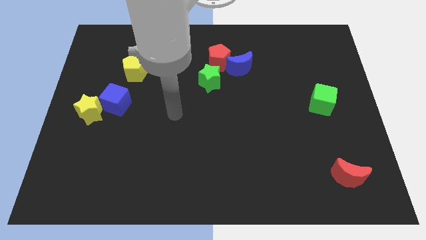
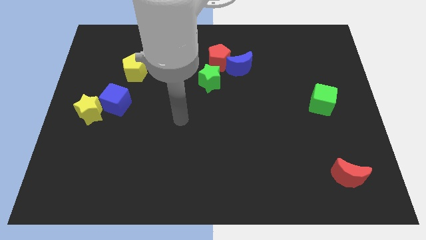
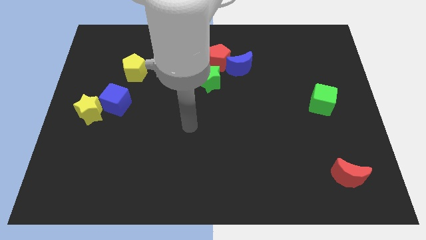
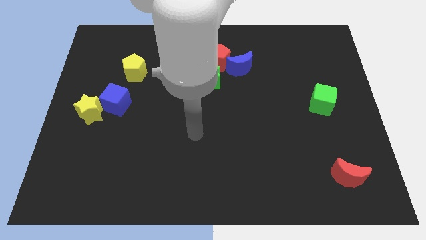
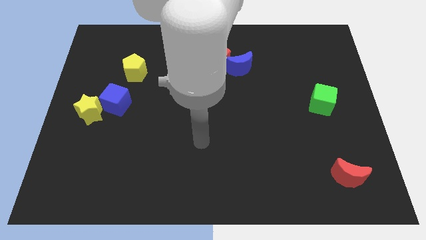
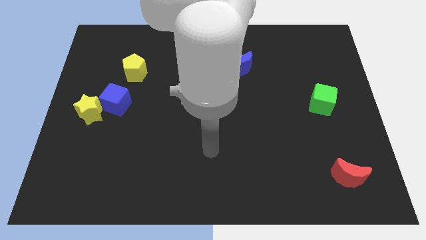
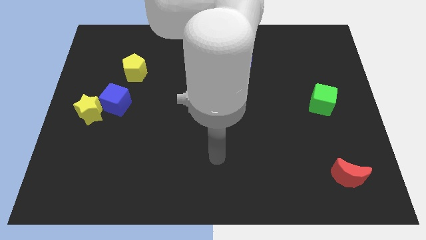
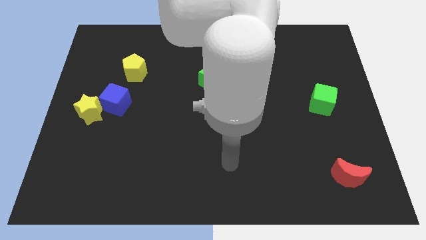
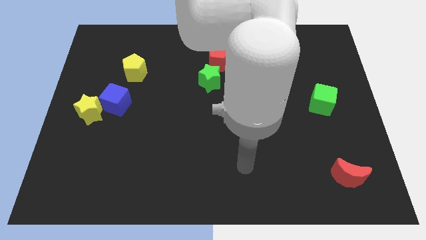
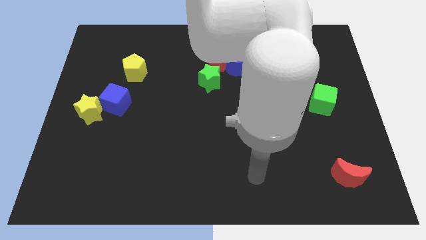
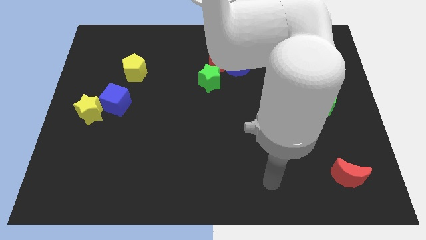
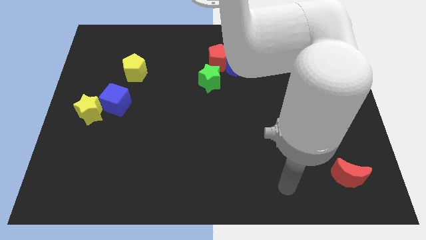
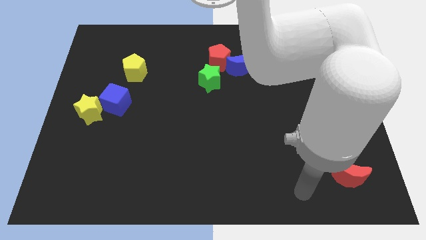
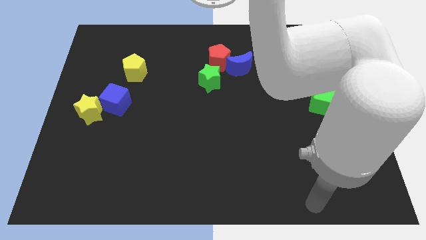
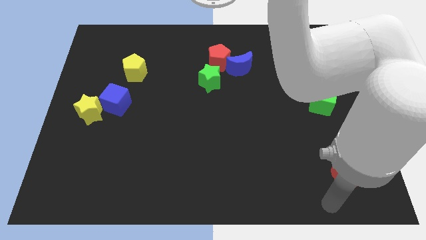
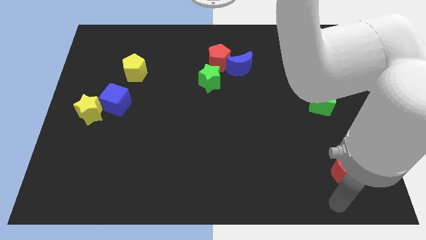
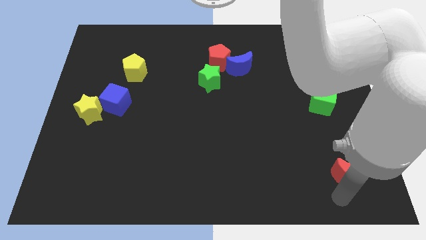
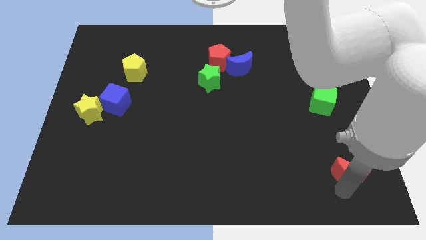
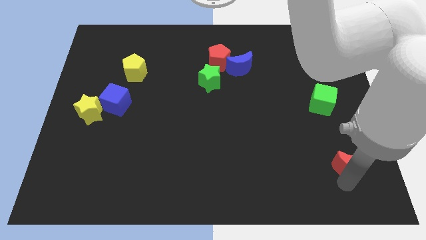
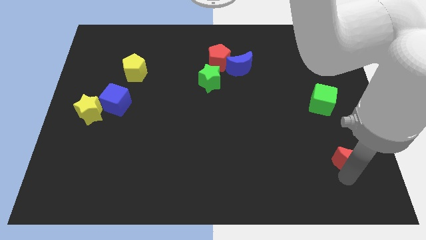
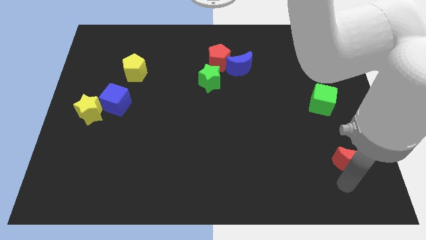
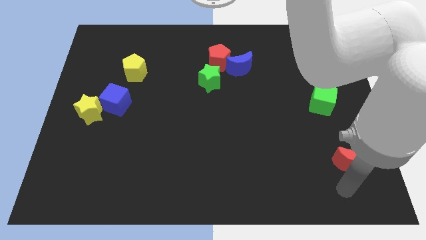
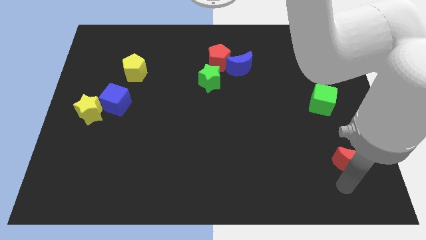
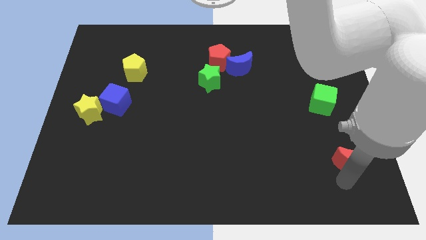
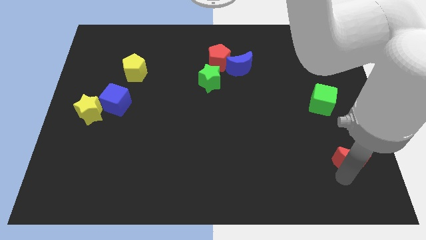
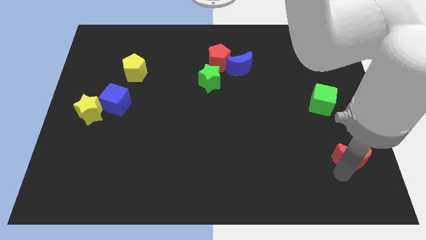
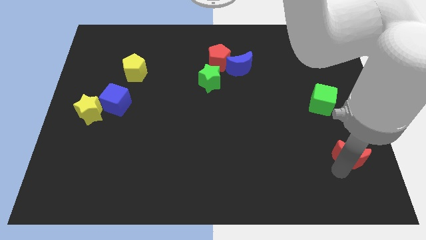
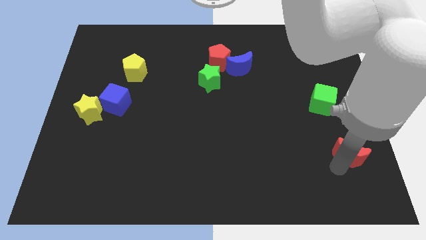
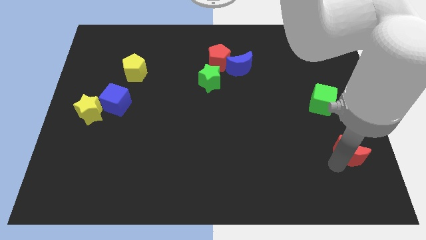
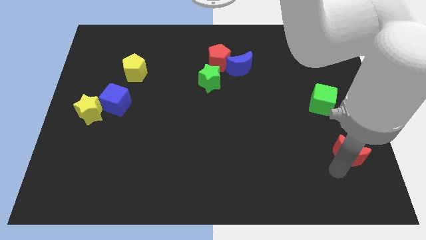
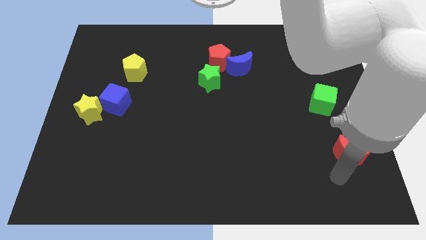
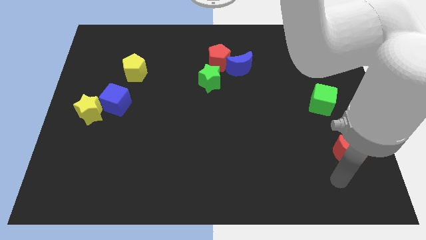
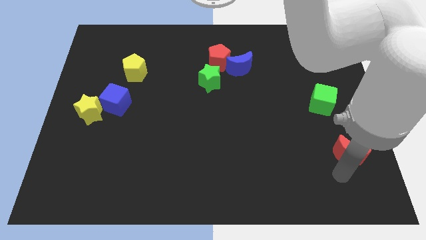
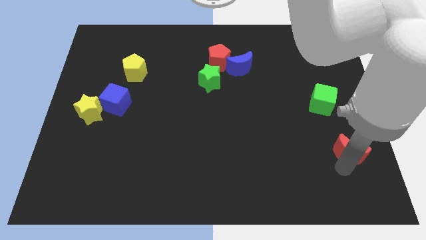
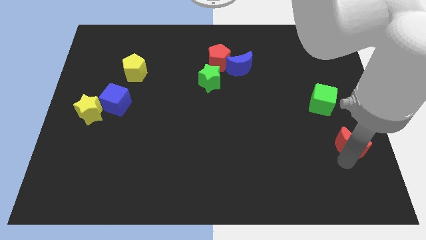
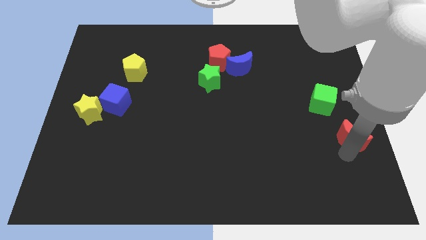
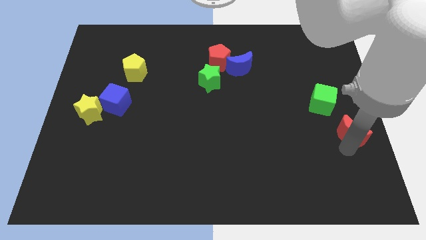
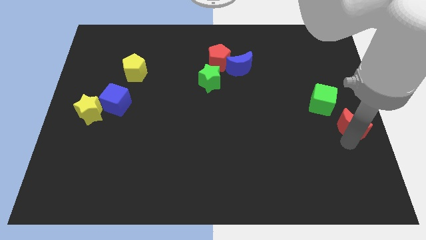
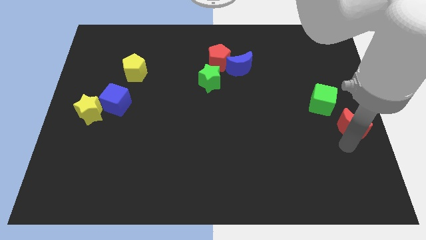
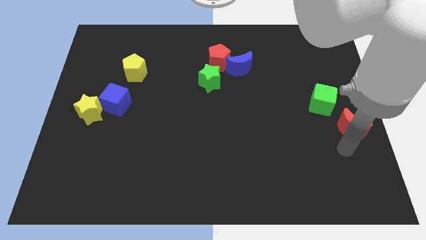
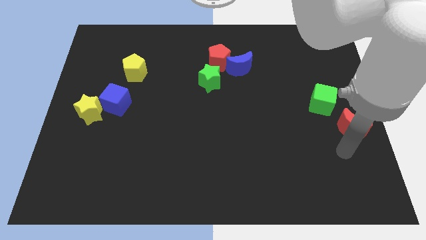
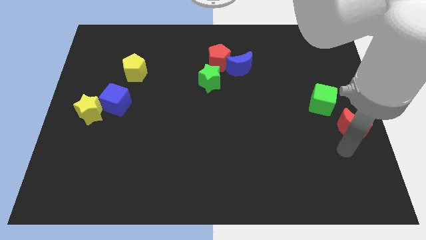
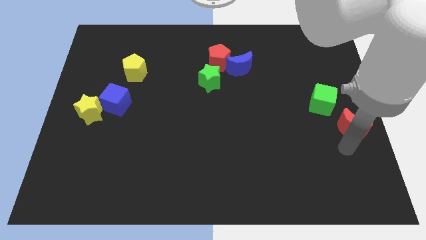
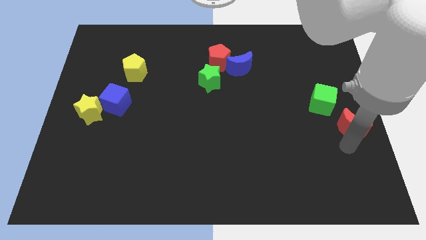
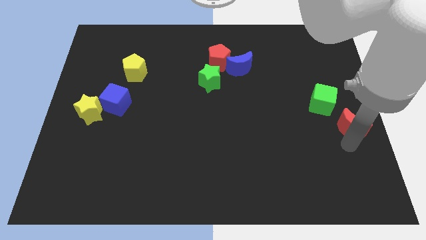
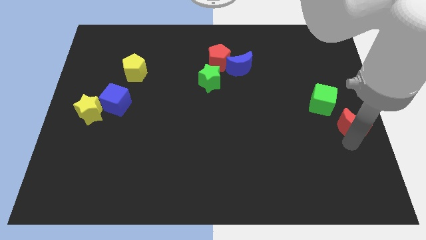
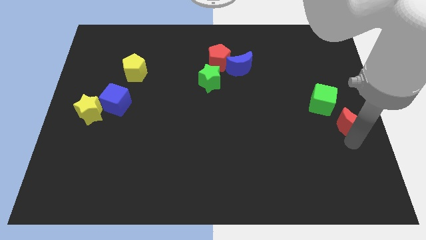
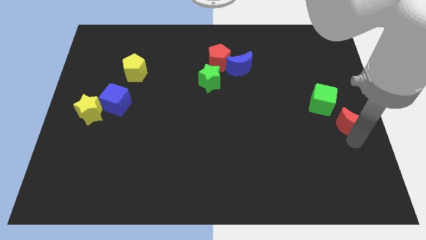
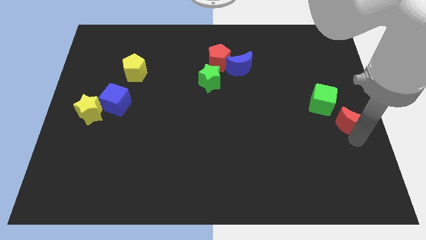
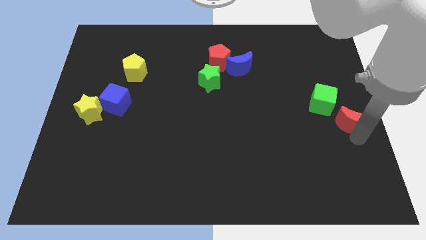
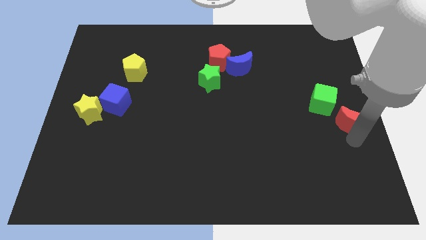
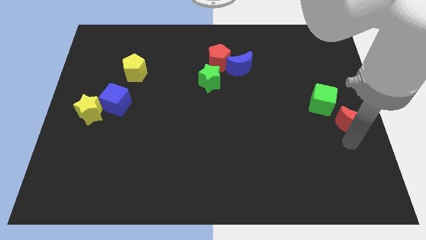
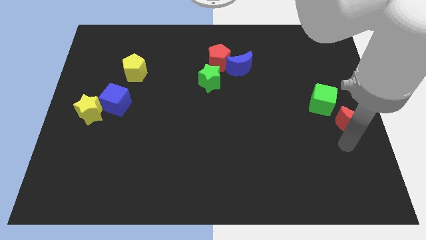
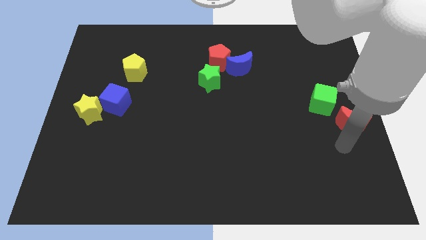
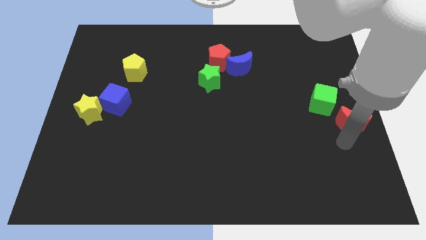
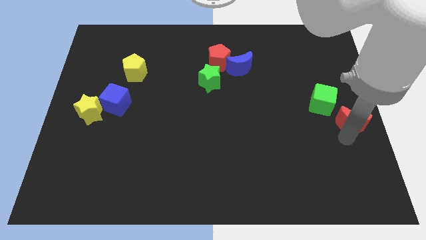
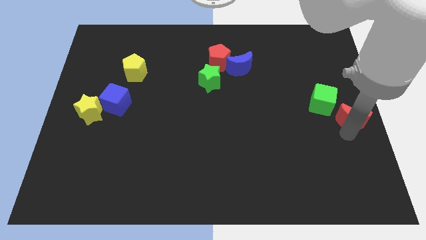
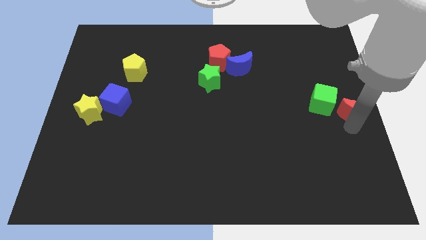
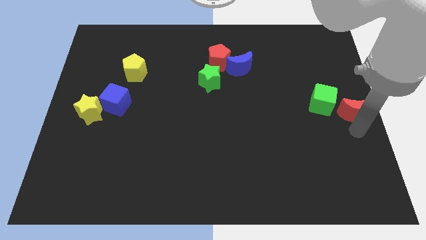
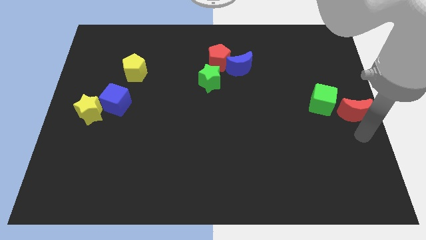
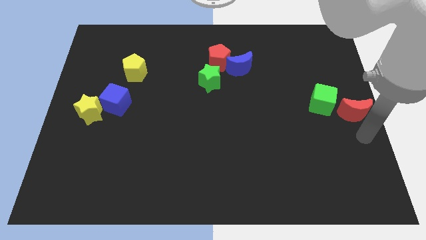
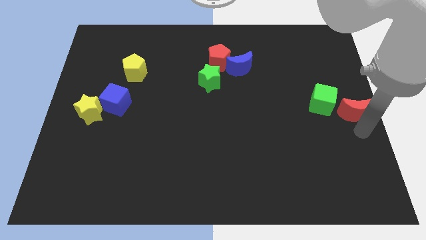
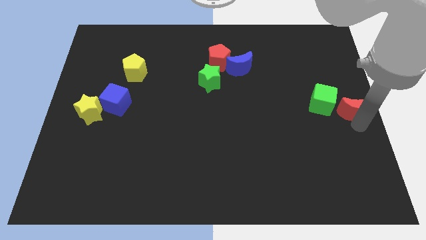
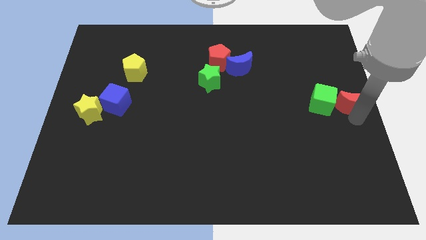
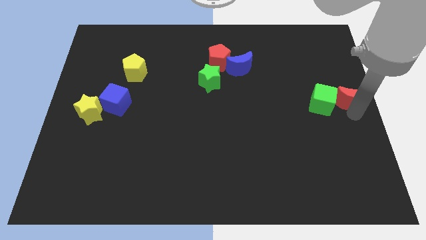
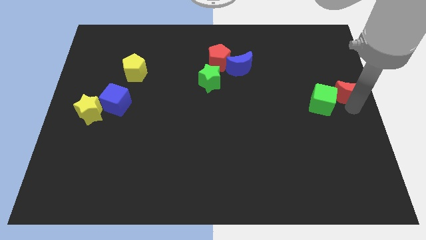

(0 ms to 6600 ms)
push the red moon up

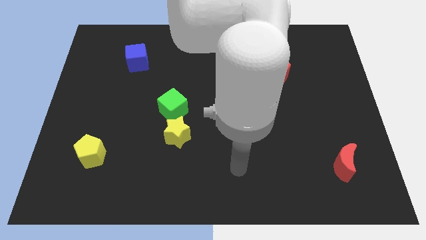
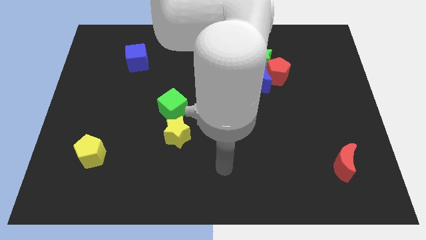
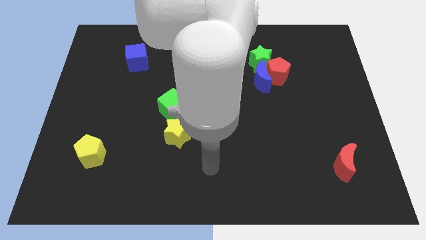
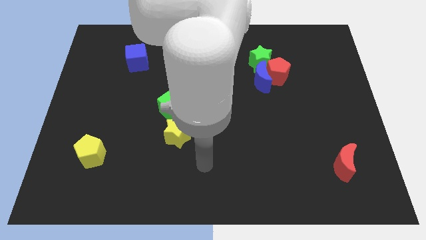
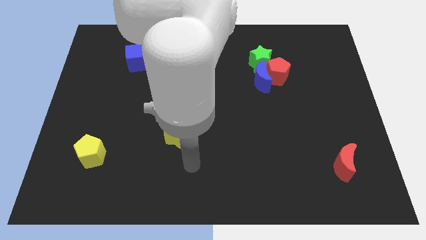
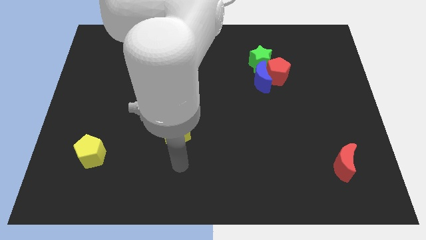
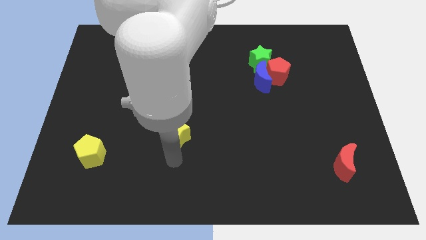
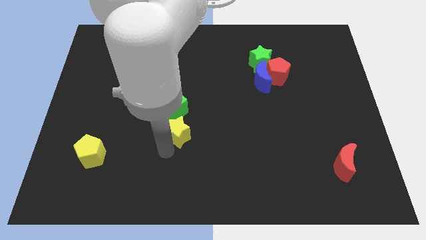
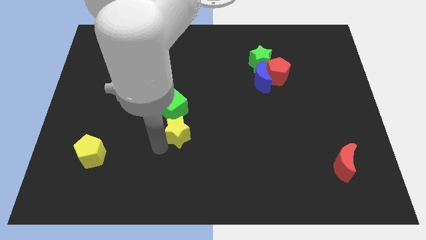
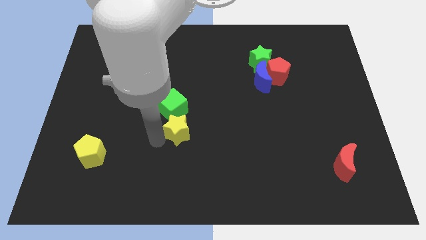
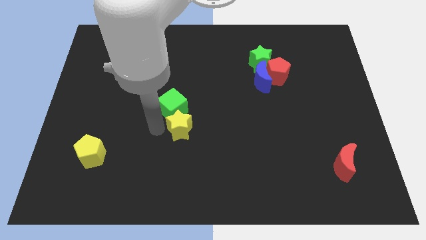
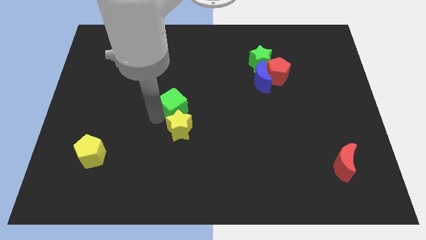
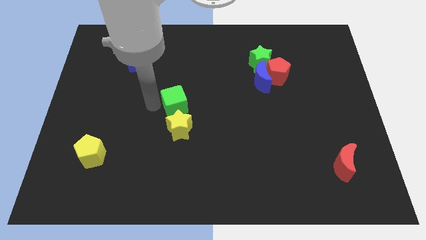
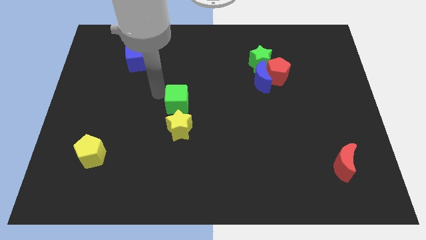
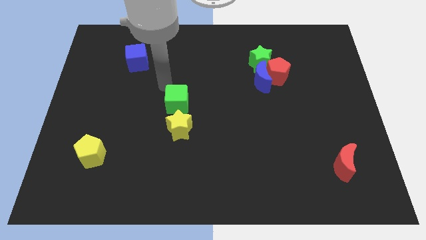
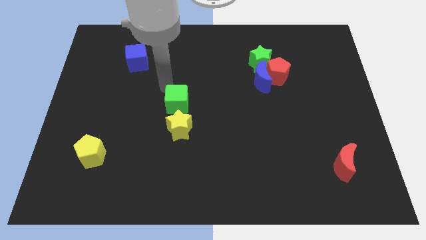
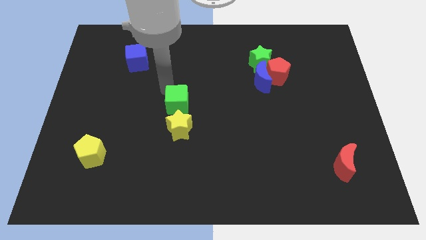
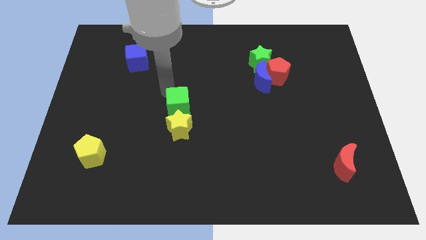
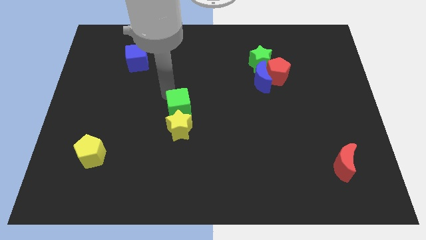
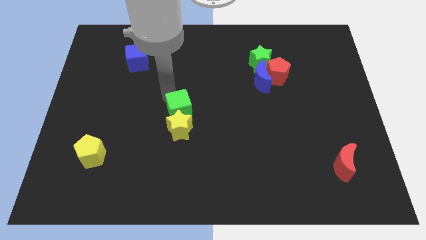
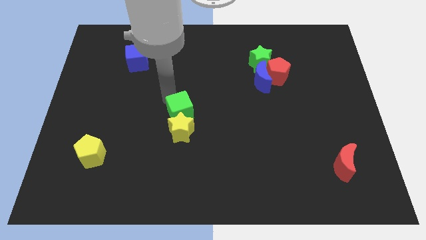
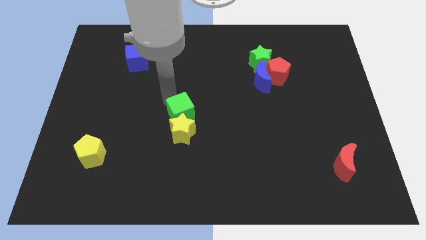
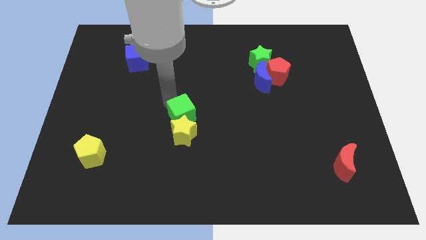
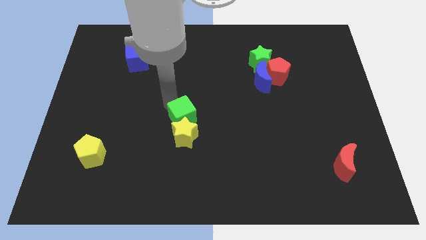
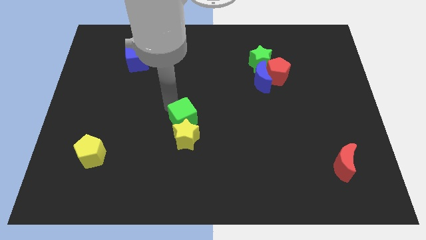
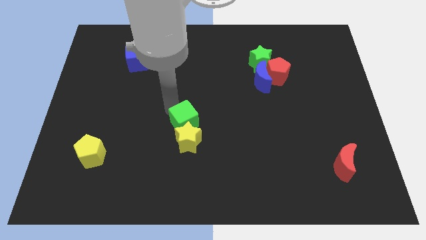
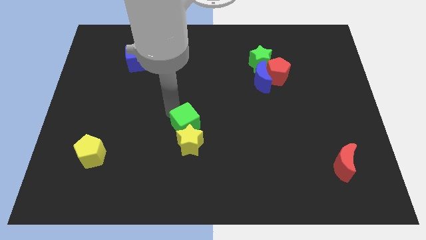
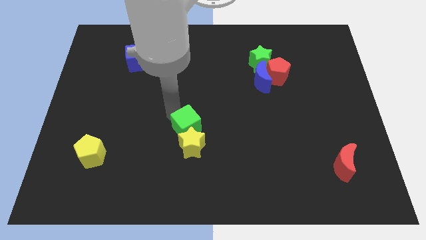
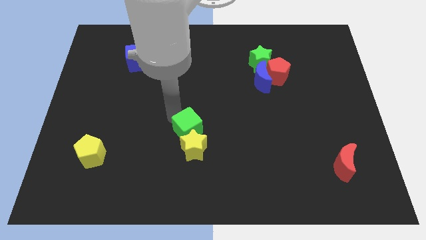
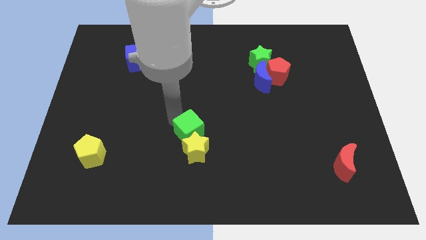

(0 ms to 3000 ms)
move the green cube a little down and to the right
